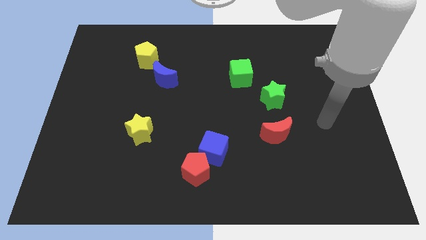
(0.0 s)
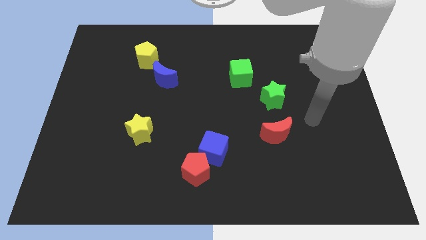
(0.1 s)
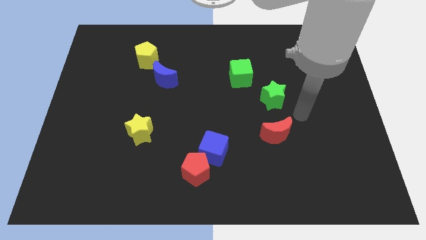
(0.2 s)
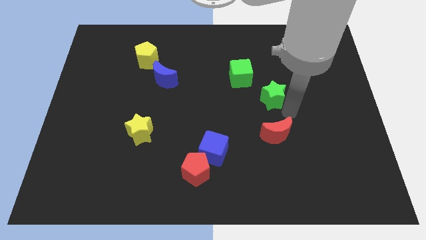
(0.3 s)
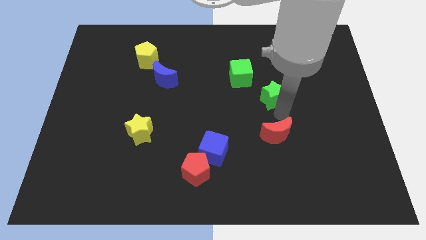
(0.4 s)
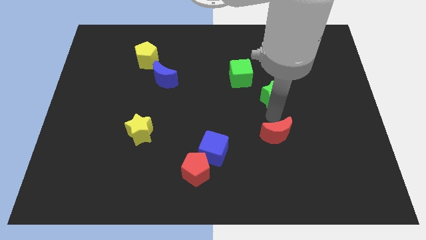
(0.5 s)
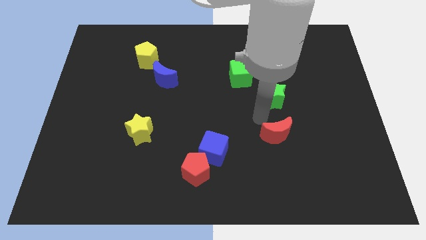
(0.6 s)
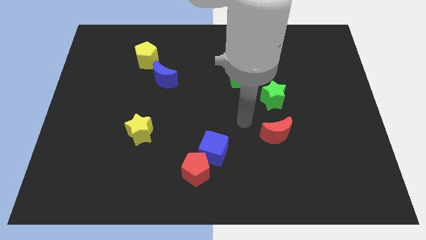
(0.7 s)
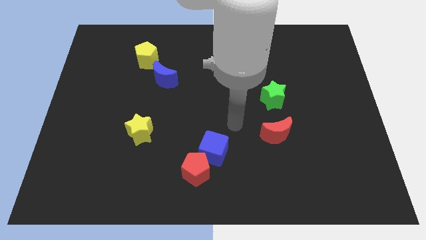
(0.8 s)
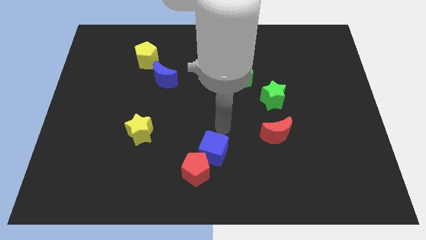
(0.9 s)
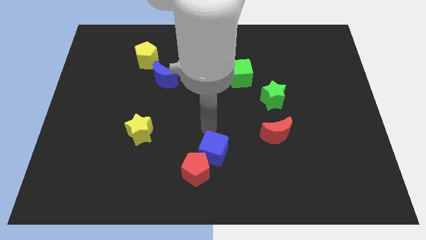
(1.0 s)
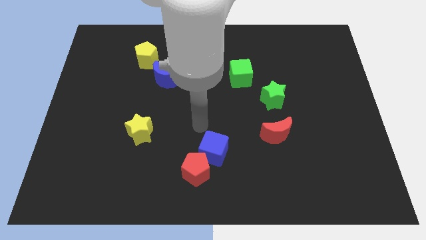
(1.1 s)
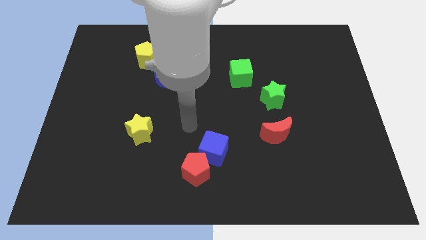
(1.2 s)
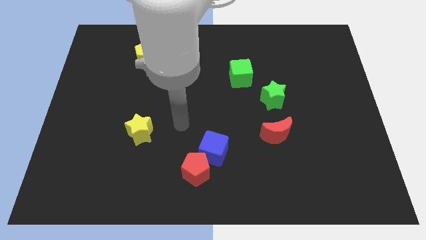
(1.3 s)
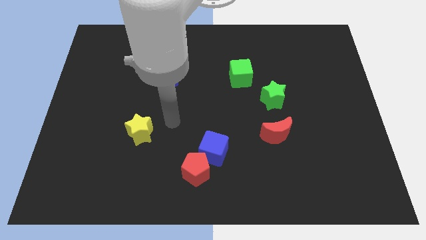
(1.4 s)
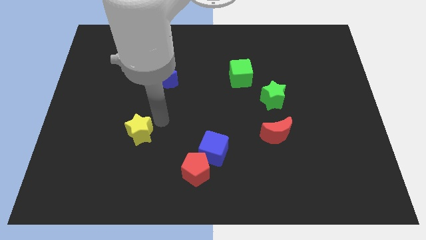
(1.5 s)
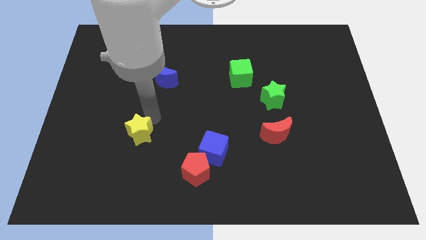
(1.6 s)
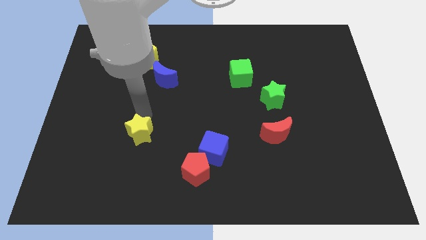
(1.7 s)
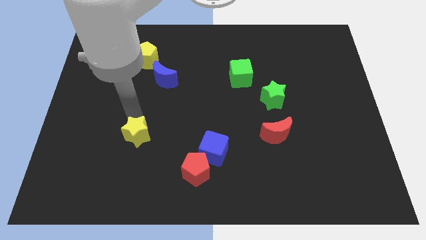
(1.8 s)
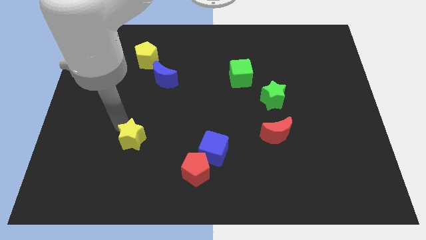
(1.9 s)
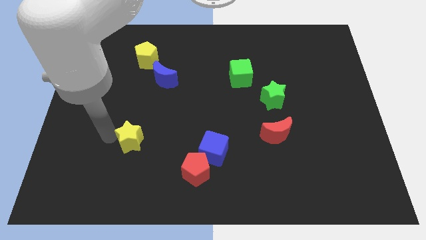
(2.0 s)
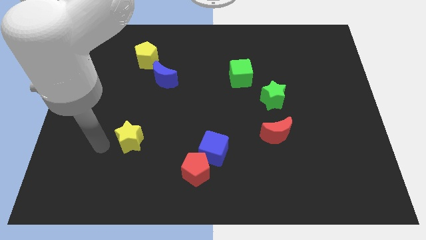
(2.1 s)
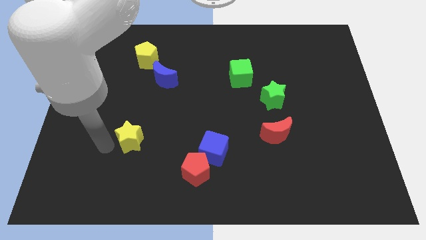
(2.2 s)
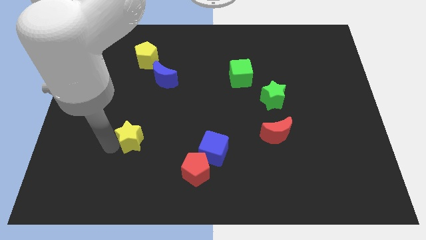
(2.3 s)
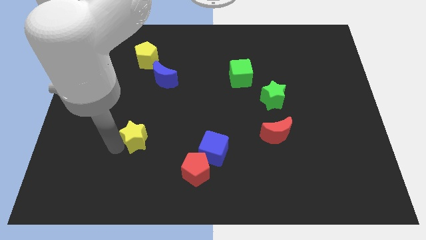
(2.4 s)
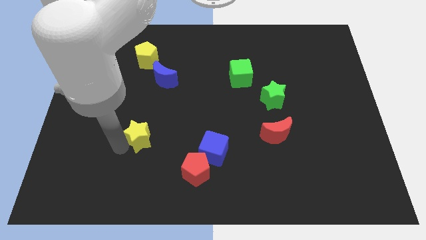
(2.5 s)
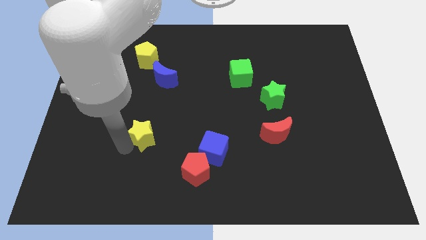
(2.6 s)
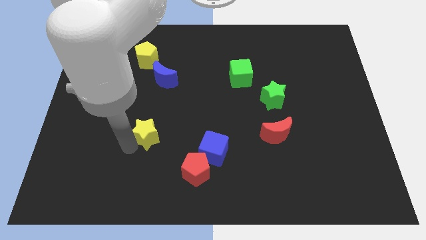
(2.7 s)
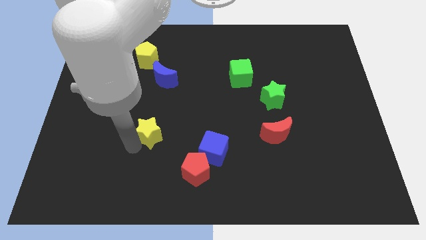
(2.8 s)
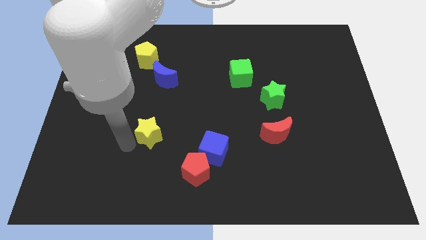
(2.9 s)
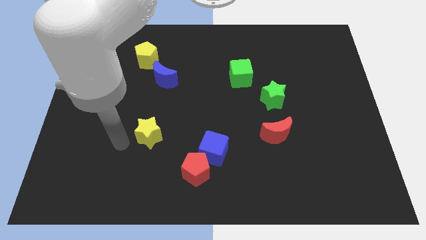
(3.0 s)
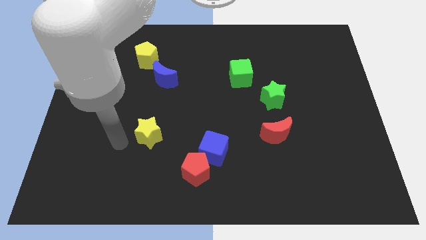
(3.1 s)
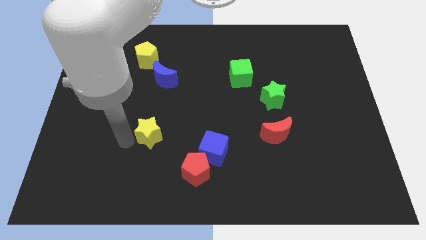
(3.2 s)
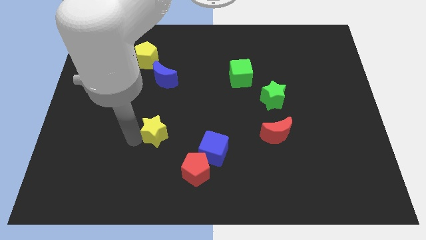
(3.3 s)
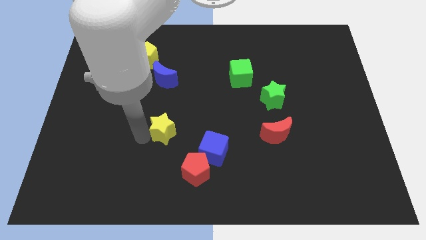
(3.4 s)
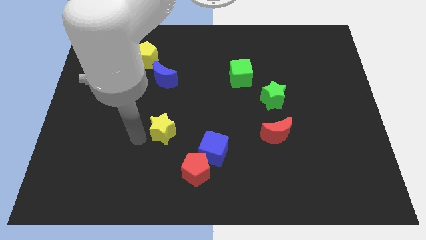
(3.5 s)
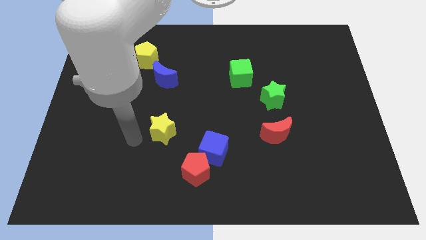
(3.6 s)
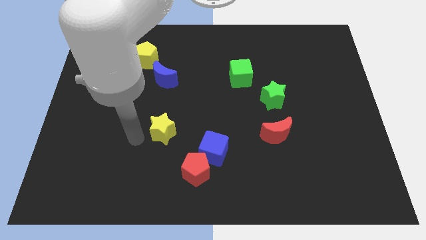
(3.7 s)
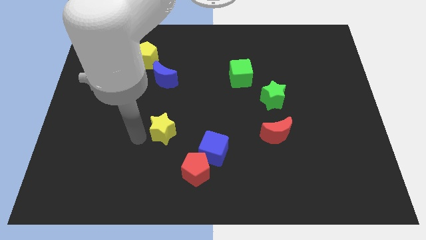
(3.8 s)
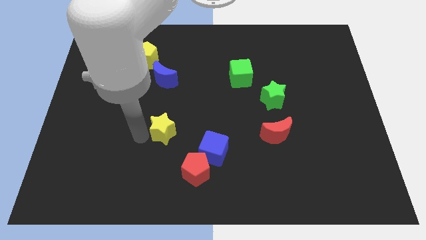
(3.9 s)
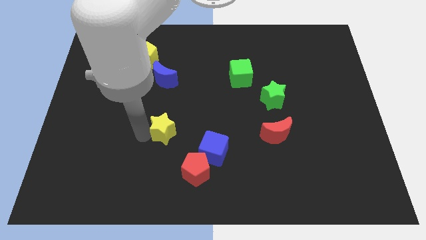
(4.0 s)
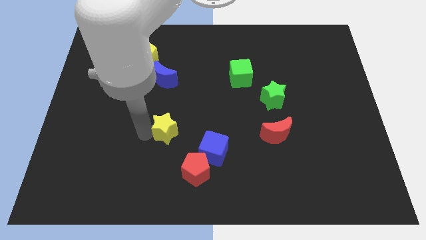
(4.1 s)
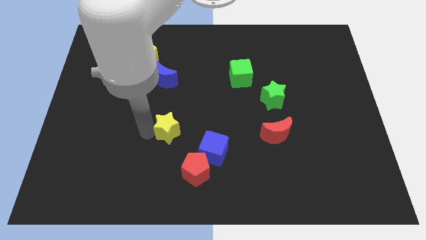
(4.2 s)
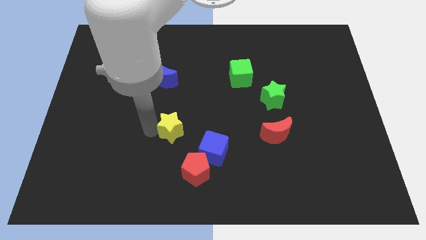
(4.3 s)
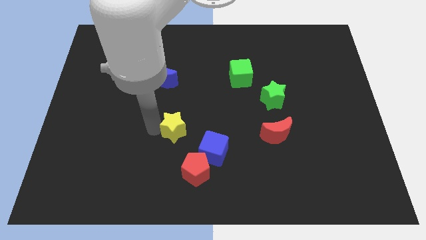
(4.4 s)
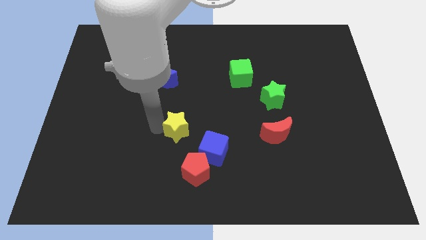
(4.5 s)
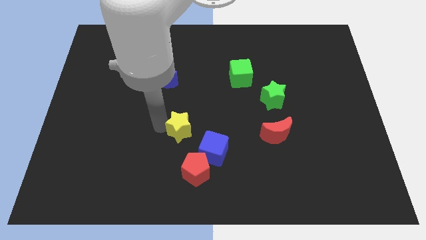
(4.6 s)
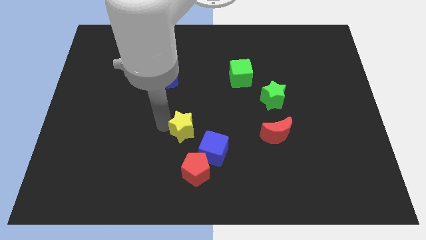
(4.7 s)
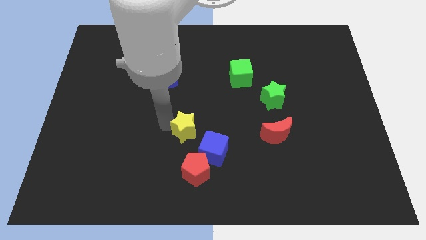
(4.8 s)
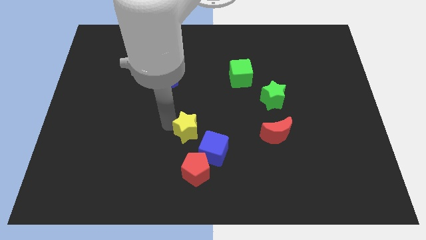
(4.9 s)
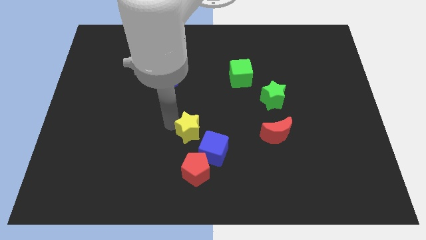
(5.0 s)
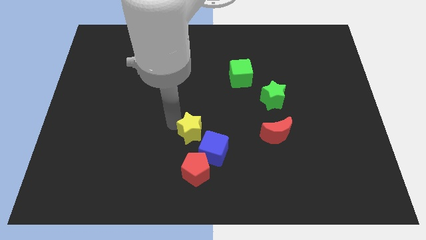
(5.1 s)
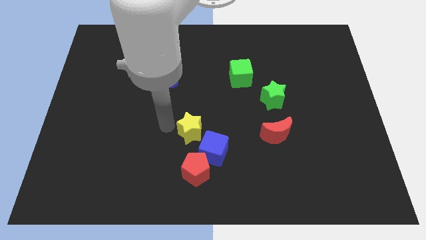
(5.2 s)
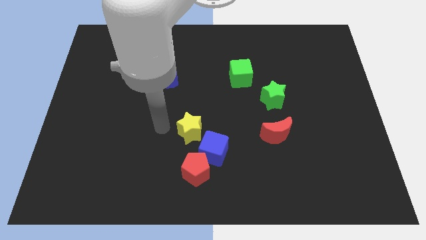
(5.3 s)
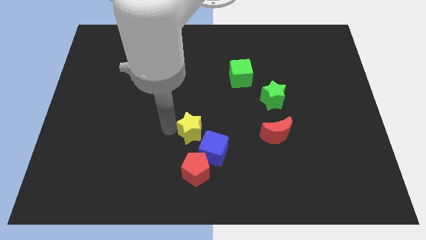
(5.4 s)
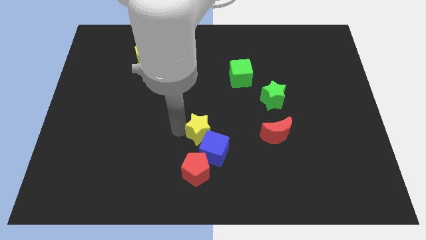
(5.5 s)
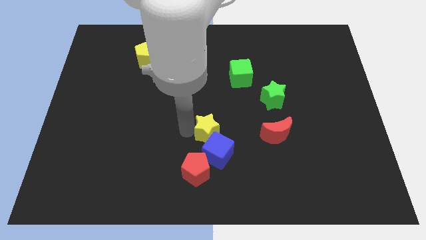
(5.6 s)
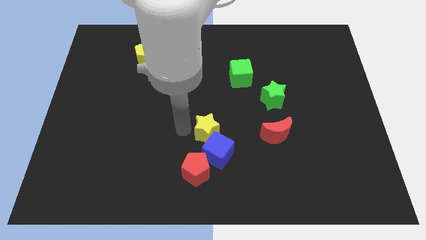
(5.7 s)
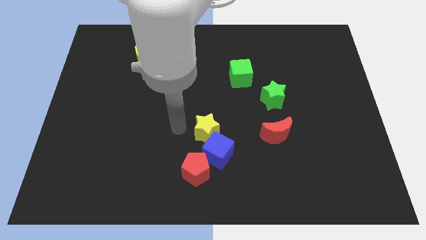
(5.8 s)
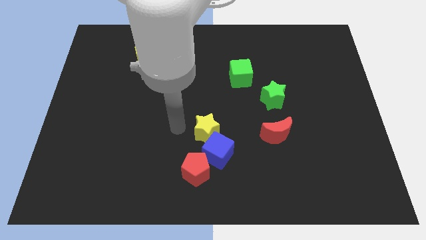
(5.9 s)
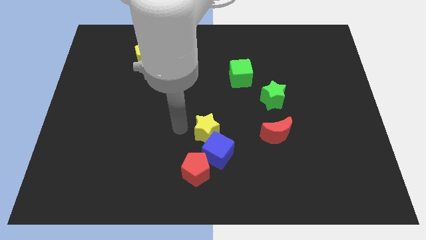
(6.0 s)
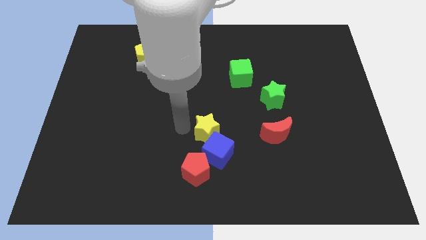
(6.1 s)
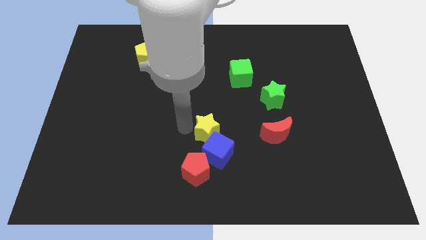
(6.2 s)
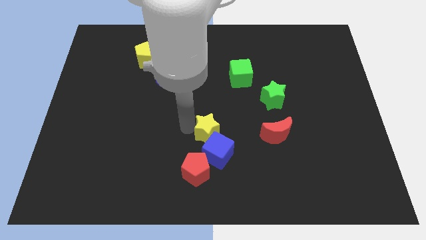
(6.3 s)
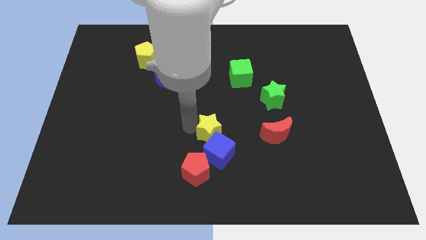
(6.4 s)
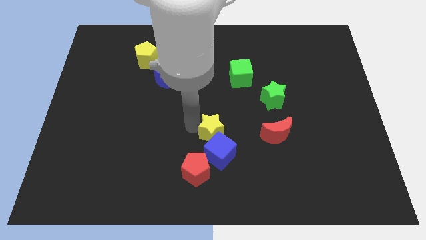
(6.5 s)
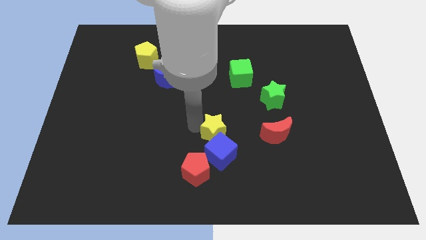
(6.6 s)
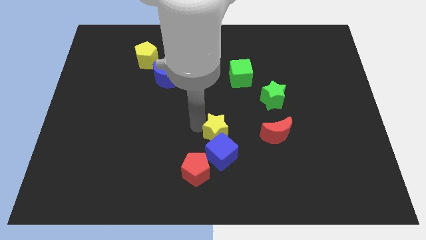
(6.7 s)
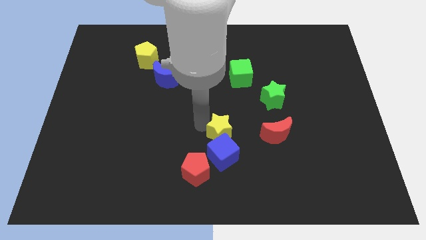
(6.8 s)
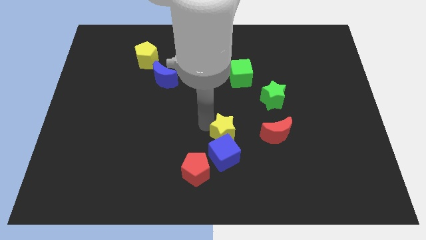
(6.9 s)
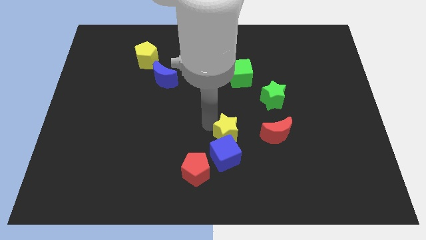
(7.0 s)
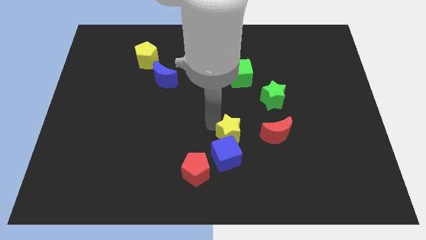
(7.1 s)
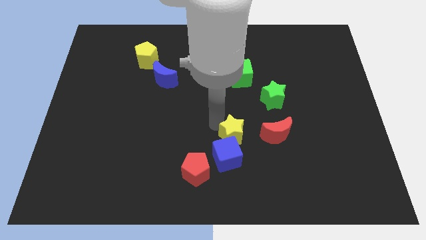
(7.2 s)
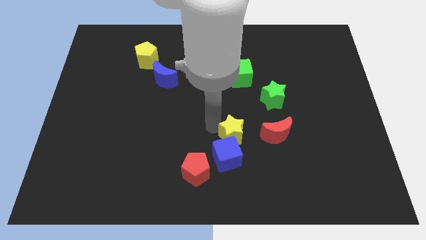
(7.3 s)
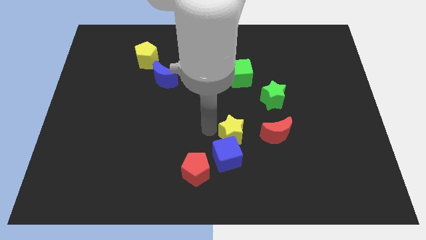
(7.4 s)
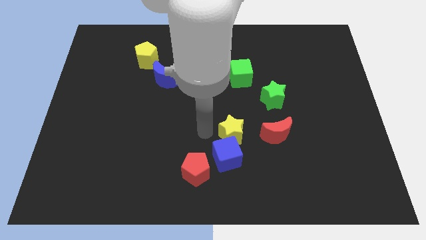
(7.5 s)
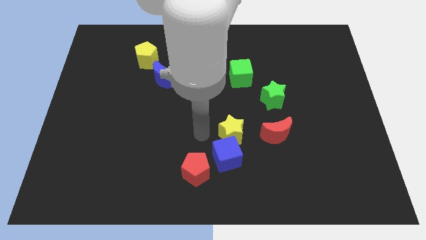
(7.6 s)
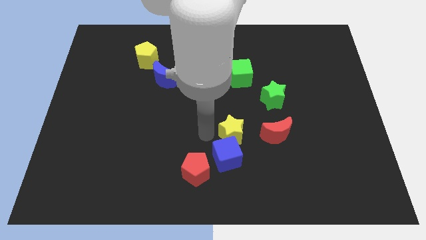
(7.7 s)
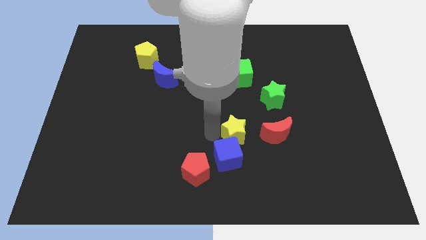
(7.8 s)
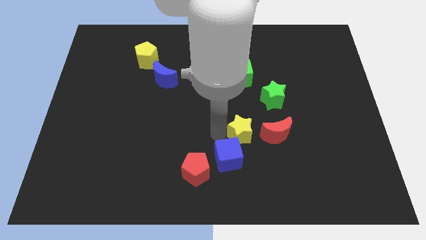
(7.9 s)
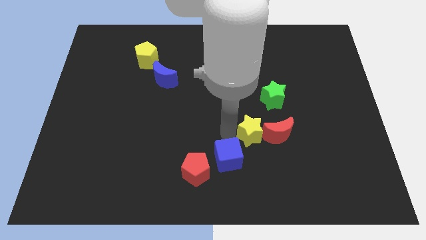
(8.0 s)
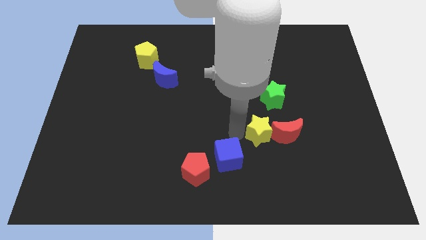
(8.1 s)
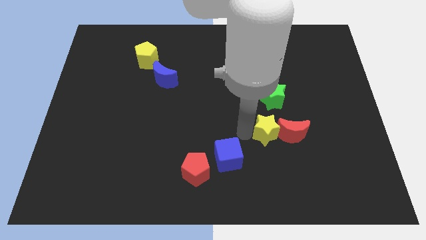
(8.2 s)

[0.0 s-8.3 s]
slide the yellow star to the red moon
